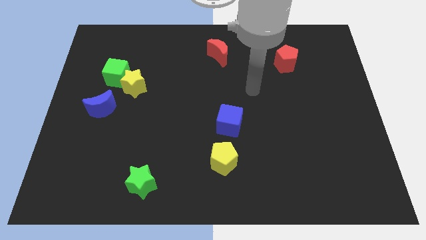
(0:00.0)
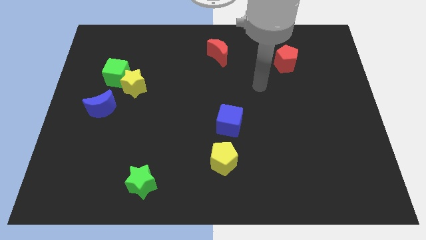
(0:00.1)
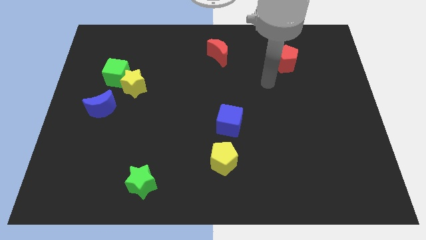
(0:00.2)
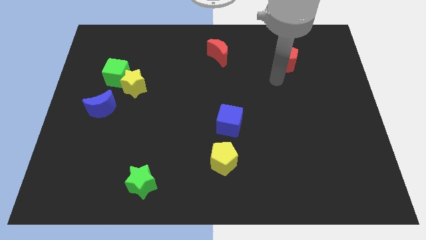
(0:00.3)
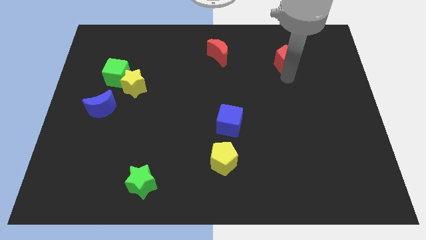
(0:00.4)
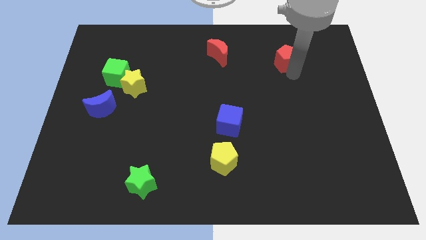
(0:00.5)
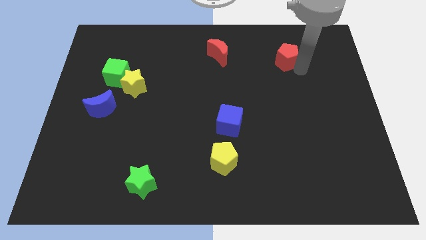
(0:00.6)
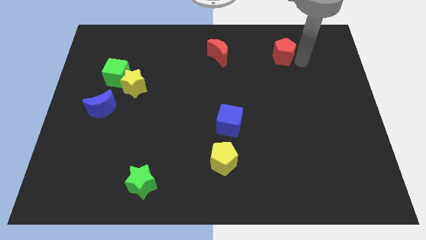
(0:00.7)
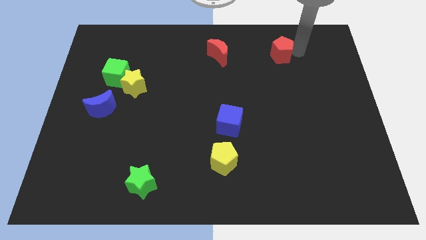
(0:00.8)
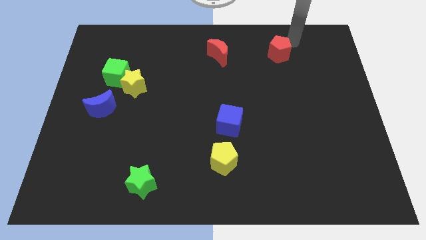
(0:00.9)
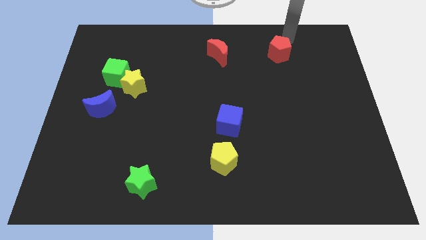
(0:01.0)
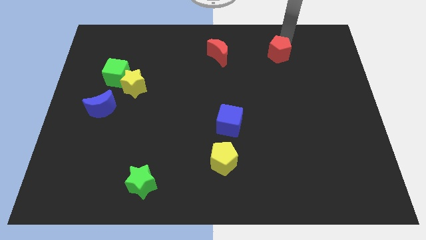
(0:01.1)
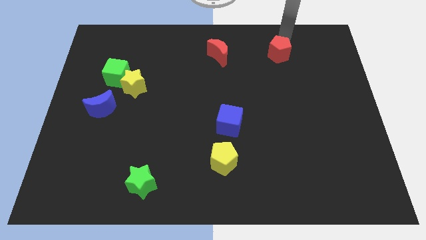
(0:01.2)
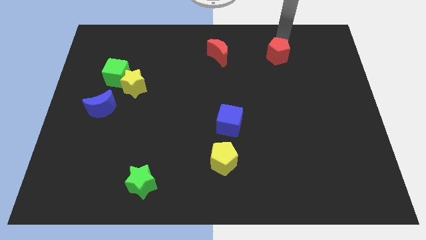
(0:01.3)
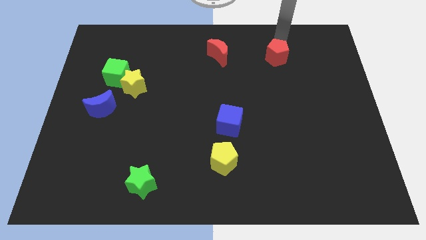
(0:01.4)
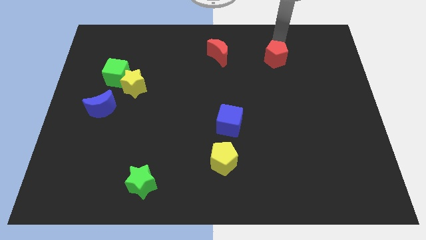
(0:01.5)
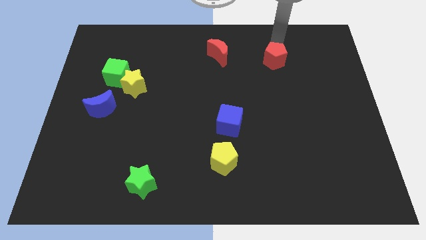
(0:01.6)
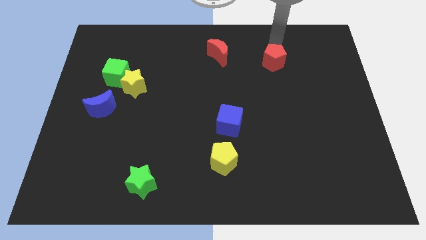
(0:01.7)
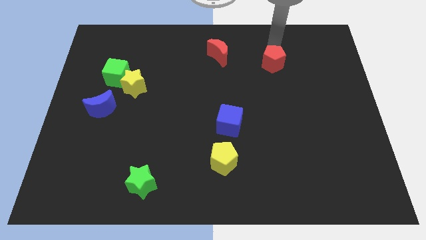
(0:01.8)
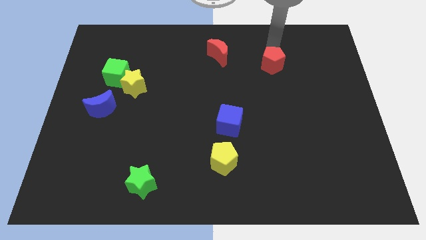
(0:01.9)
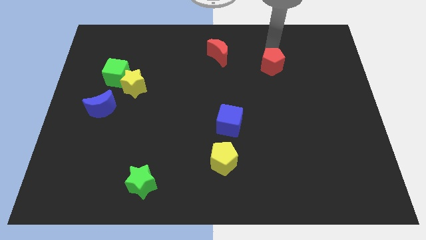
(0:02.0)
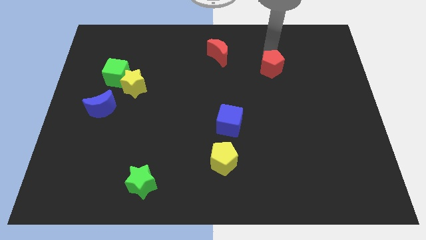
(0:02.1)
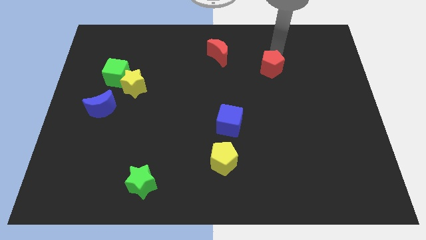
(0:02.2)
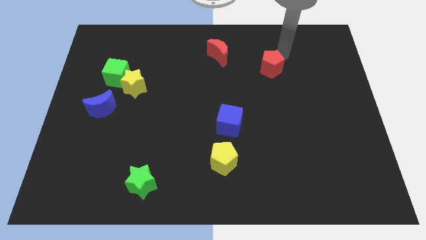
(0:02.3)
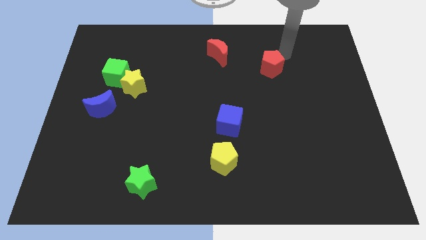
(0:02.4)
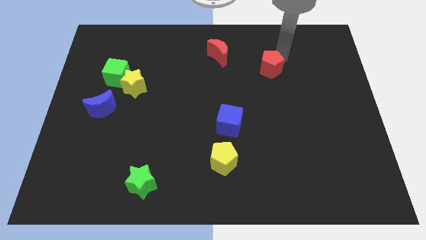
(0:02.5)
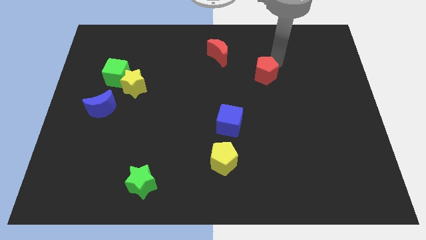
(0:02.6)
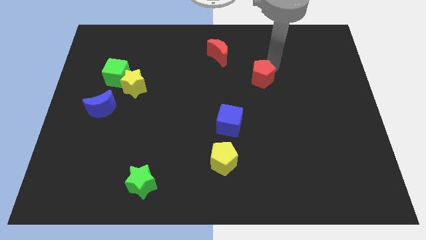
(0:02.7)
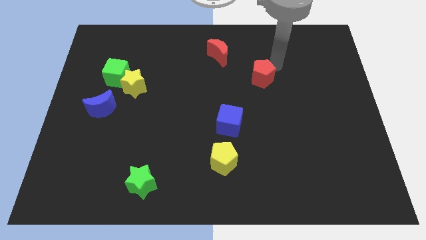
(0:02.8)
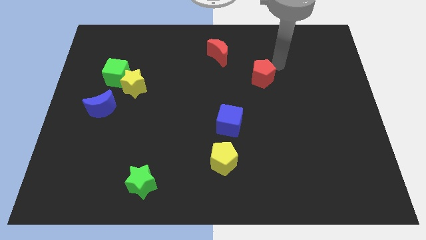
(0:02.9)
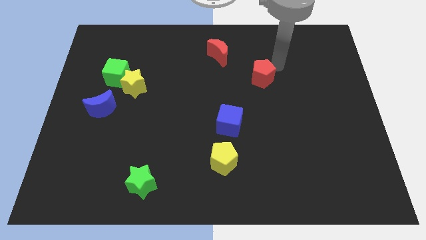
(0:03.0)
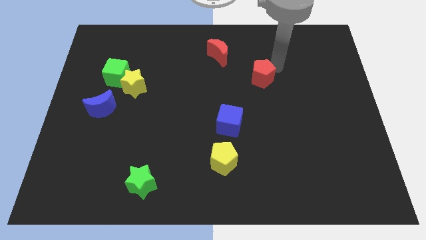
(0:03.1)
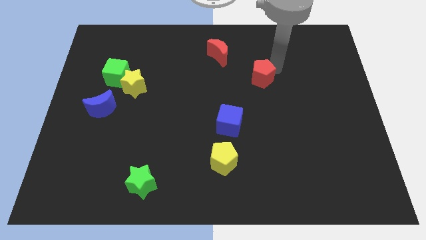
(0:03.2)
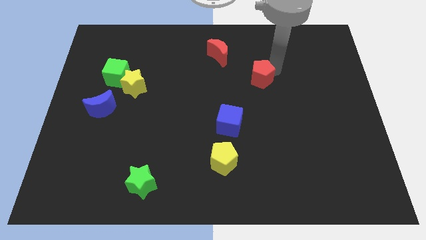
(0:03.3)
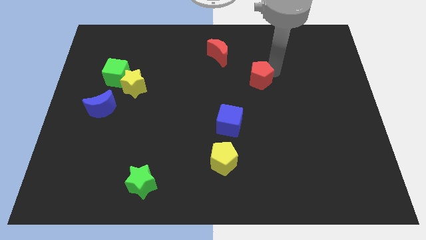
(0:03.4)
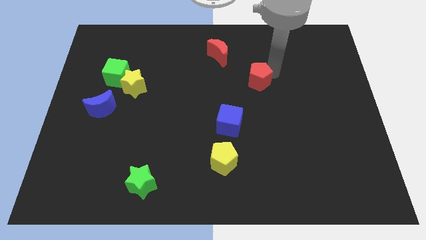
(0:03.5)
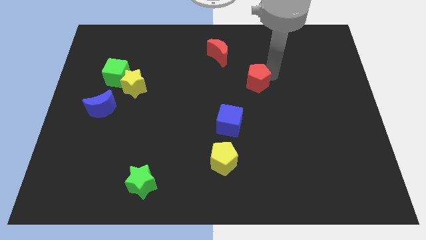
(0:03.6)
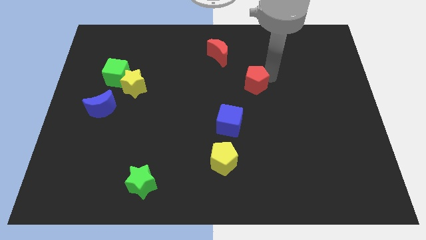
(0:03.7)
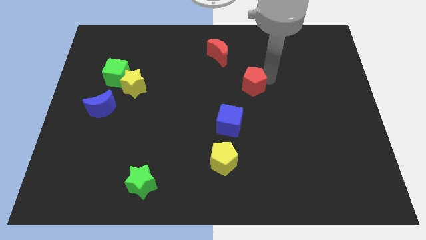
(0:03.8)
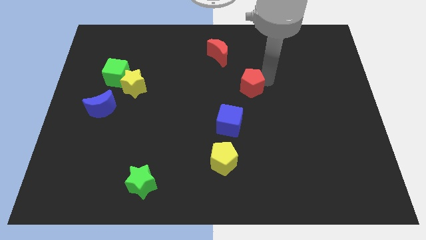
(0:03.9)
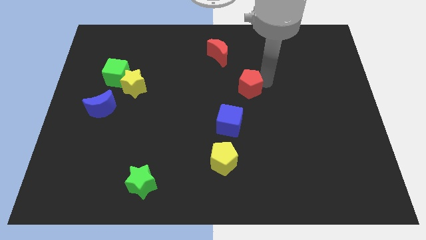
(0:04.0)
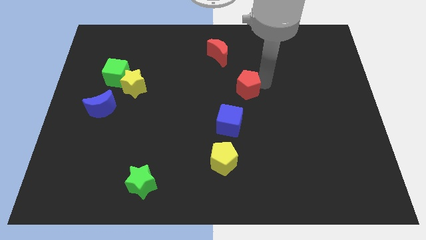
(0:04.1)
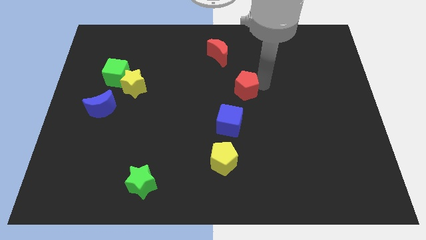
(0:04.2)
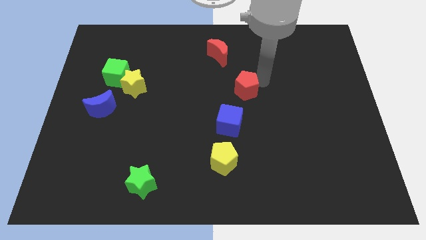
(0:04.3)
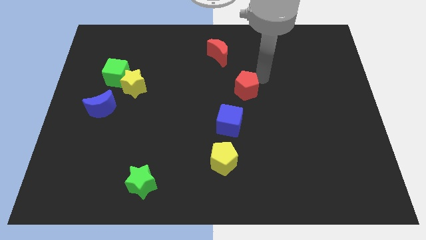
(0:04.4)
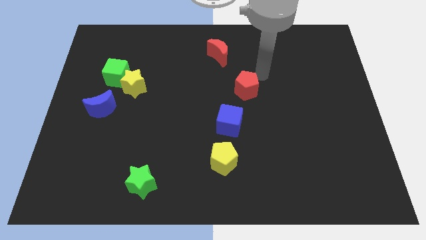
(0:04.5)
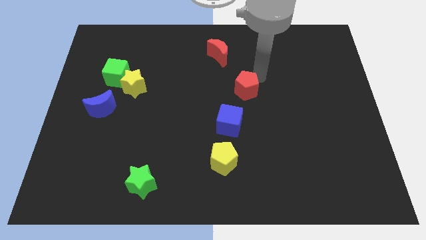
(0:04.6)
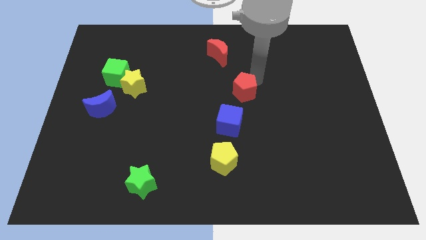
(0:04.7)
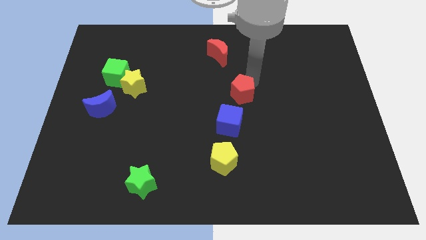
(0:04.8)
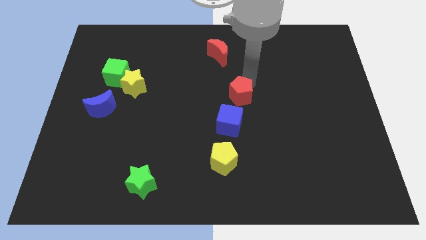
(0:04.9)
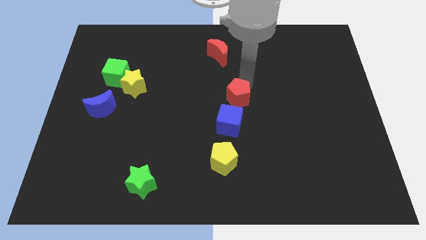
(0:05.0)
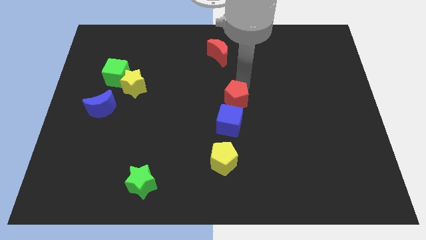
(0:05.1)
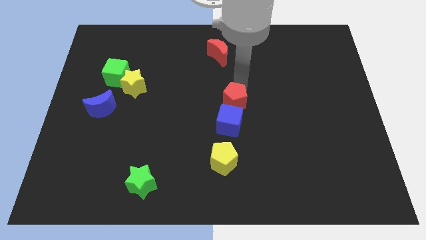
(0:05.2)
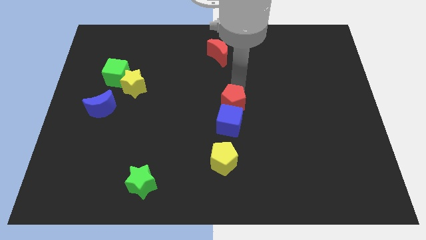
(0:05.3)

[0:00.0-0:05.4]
slide the red pentagon above the yellow pentagon

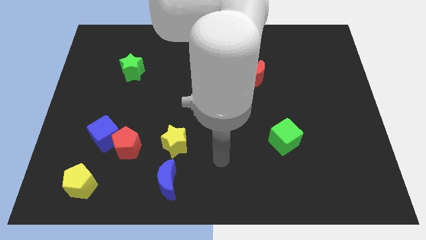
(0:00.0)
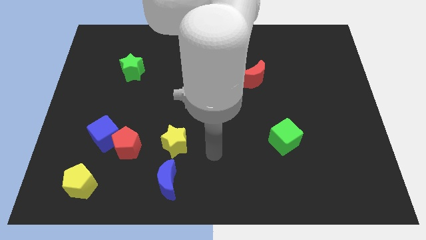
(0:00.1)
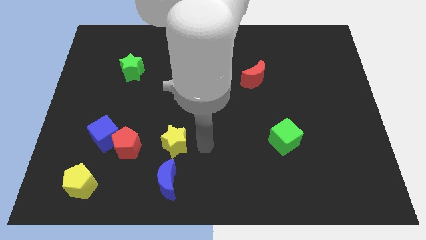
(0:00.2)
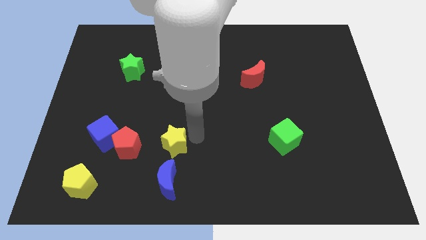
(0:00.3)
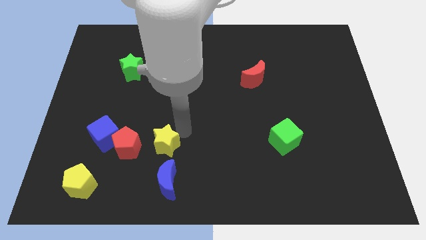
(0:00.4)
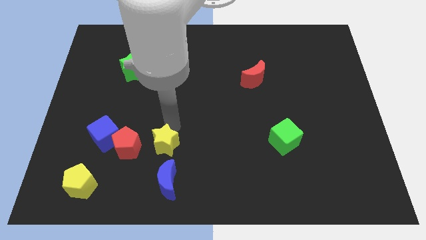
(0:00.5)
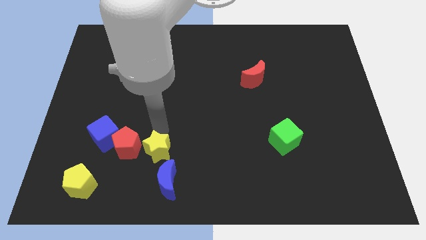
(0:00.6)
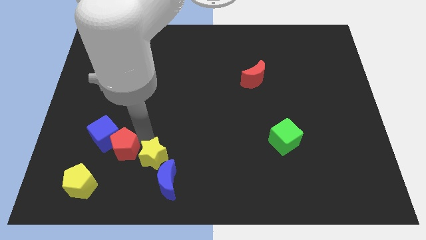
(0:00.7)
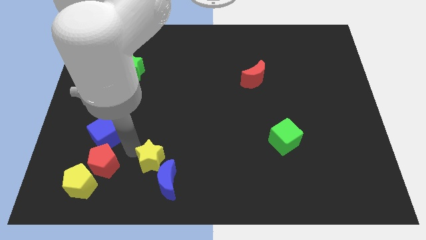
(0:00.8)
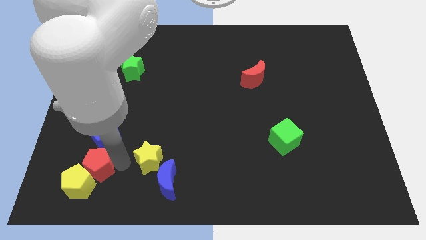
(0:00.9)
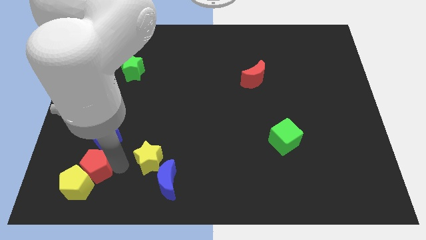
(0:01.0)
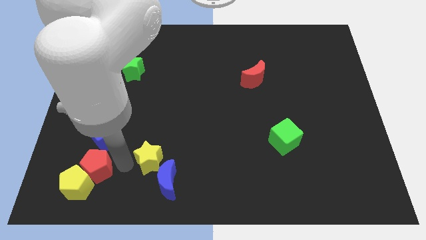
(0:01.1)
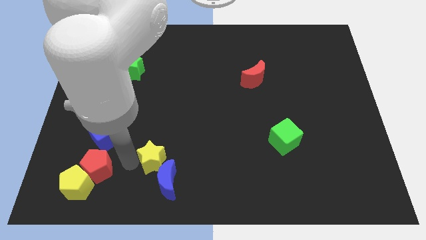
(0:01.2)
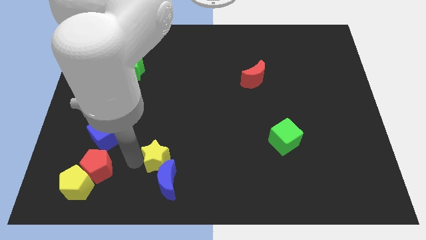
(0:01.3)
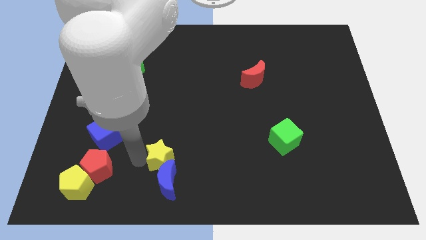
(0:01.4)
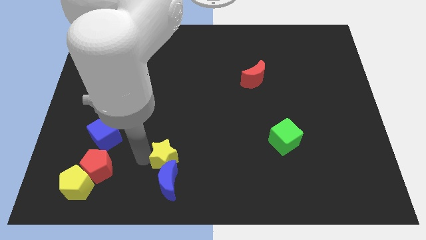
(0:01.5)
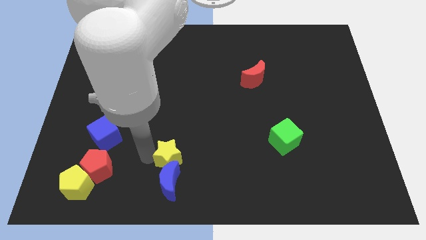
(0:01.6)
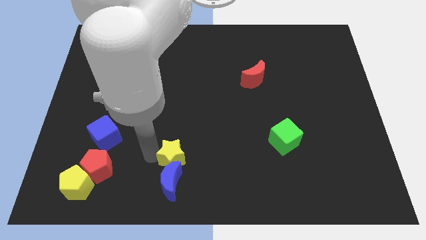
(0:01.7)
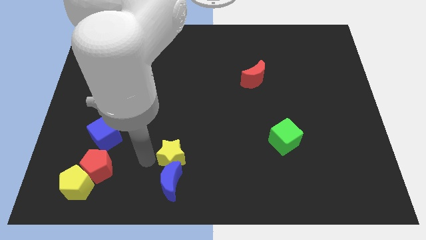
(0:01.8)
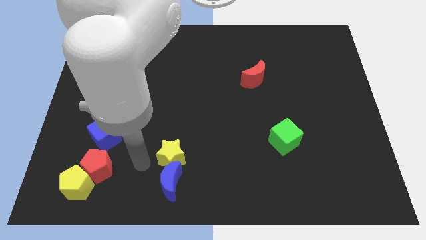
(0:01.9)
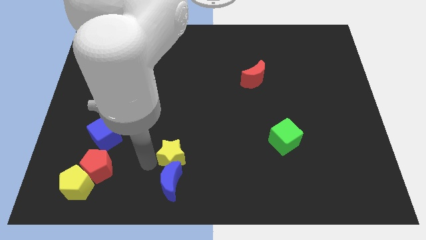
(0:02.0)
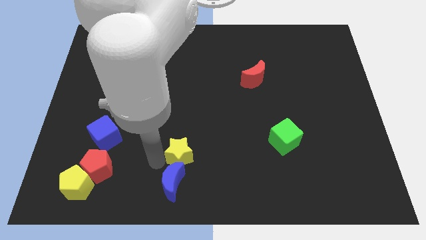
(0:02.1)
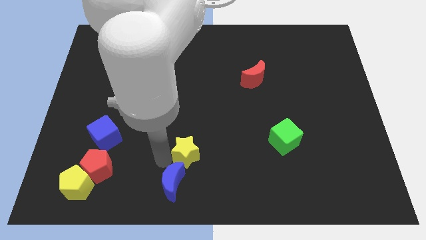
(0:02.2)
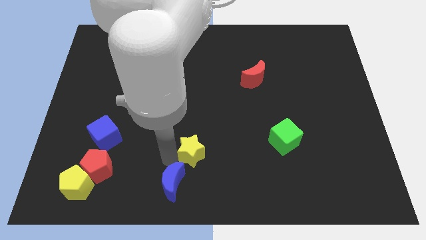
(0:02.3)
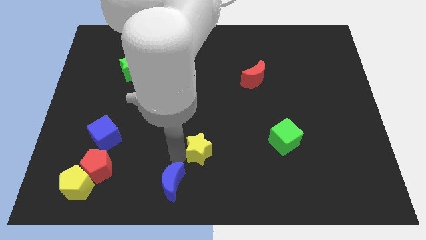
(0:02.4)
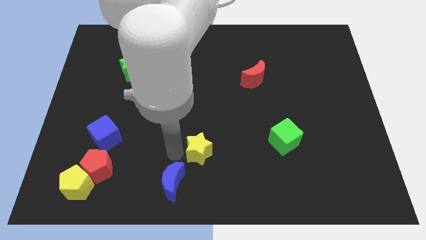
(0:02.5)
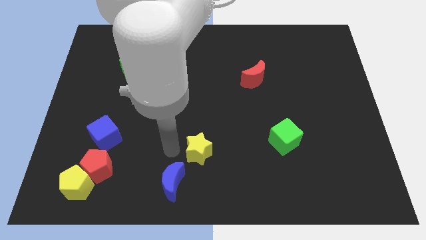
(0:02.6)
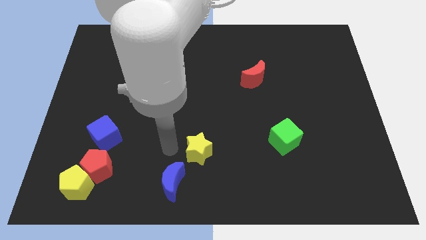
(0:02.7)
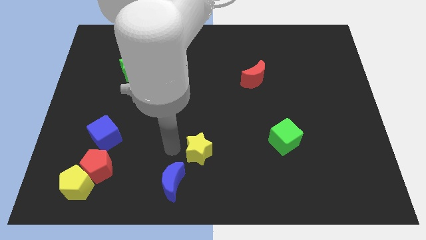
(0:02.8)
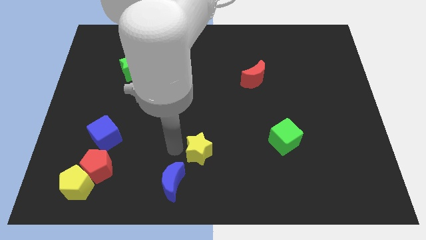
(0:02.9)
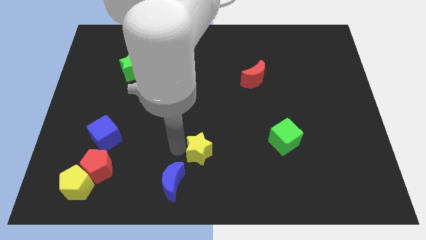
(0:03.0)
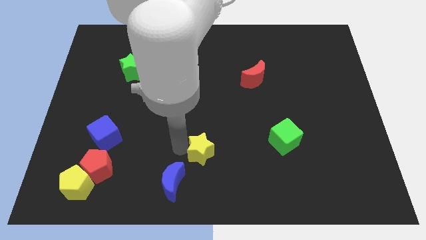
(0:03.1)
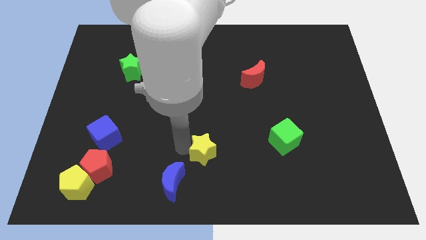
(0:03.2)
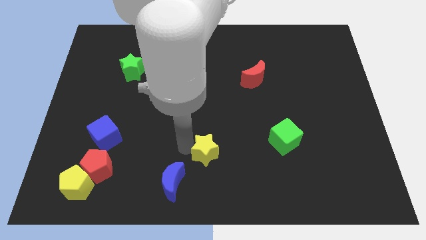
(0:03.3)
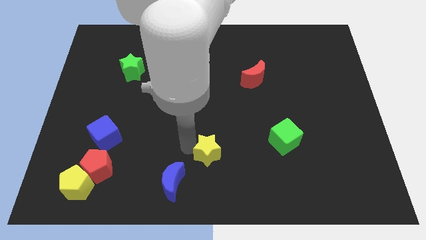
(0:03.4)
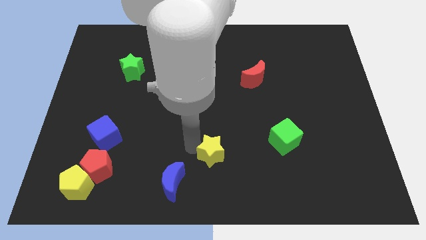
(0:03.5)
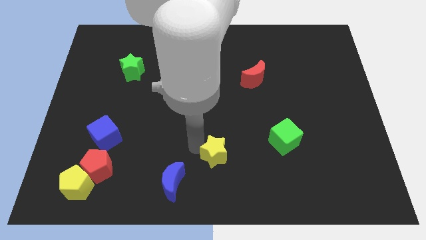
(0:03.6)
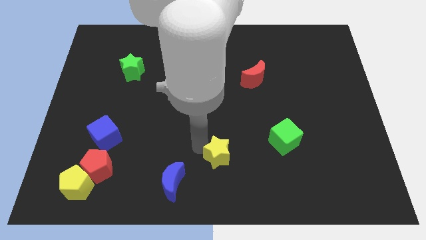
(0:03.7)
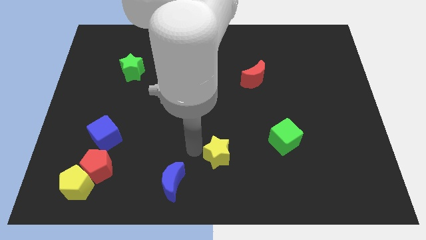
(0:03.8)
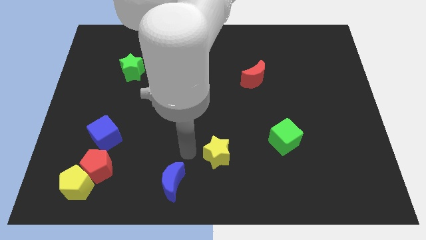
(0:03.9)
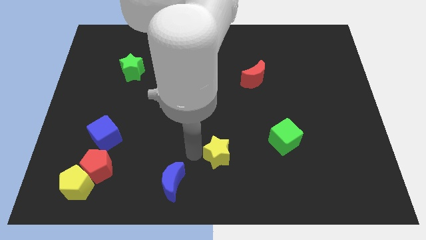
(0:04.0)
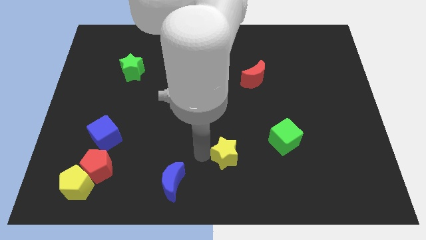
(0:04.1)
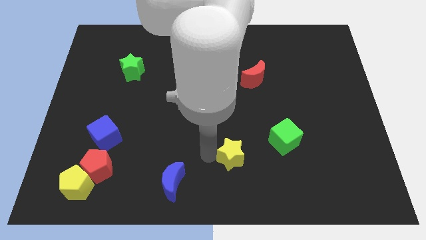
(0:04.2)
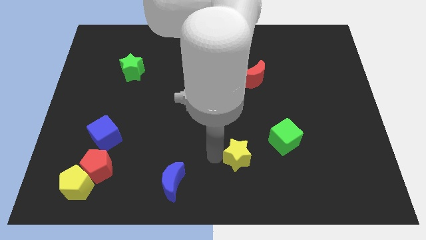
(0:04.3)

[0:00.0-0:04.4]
move the yellow star to the bottom left of the green cube
